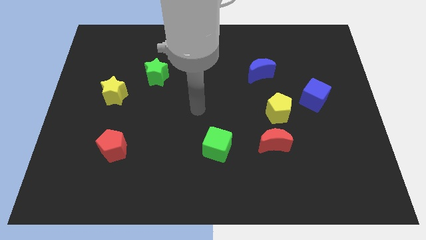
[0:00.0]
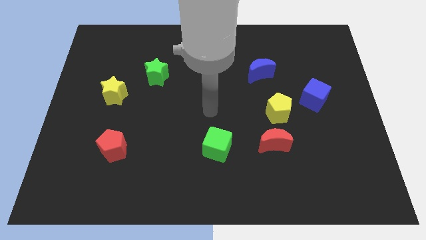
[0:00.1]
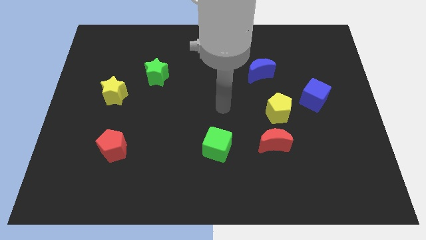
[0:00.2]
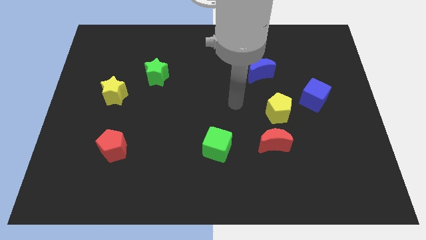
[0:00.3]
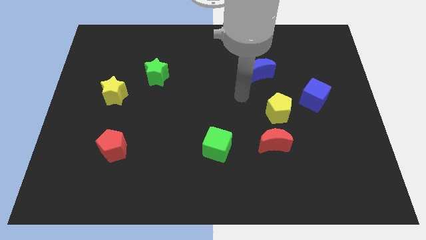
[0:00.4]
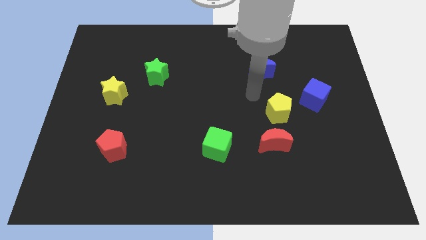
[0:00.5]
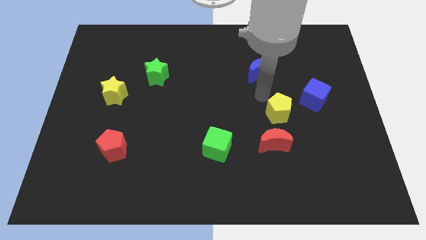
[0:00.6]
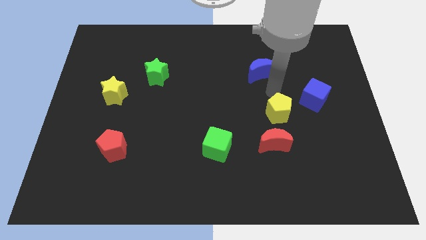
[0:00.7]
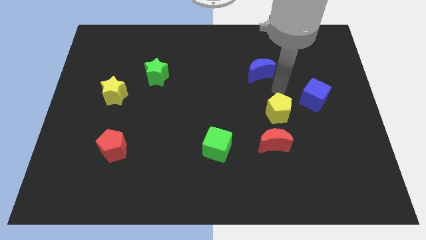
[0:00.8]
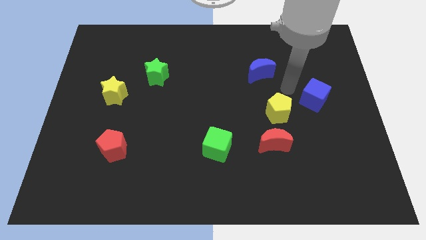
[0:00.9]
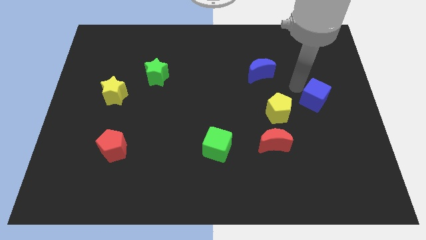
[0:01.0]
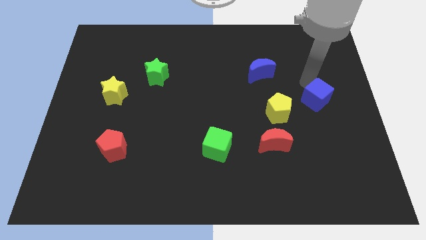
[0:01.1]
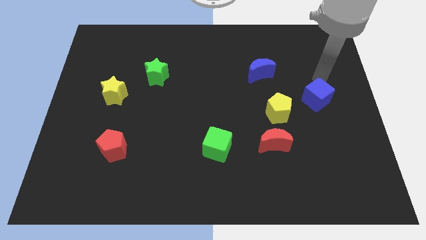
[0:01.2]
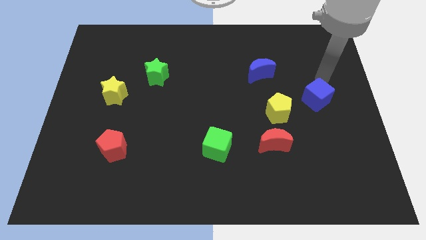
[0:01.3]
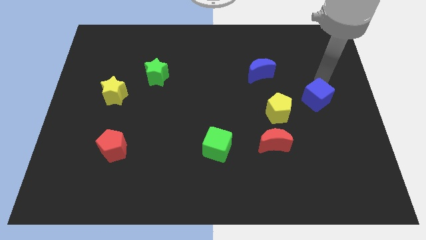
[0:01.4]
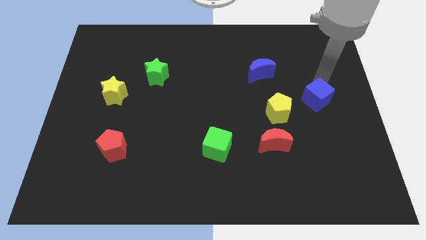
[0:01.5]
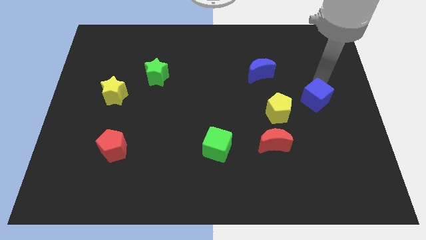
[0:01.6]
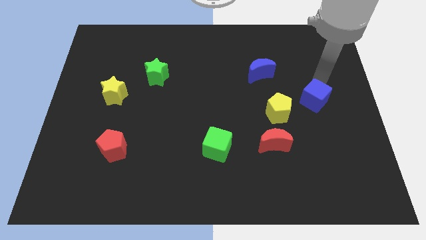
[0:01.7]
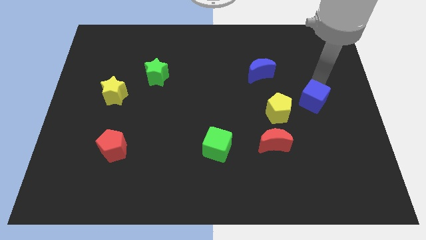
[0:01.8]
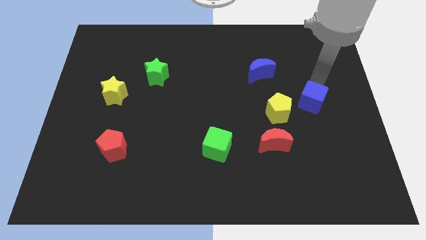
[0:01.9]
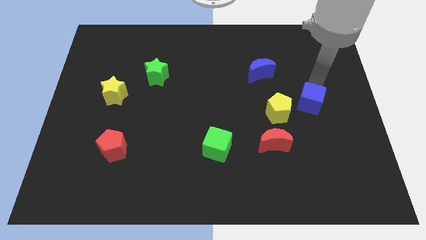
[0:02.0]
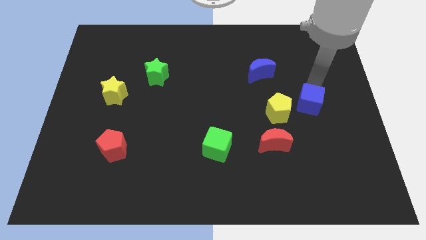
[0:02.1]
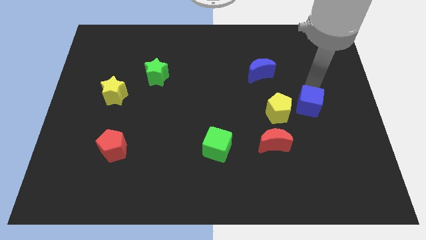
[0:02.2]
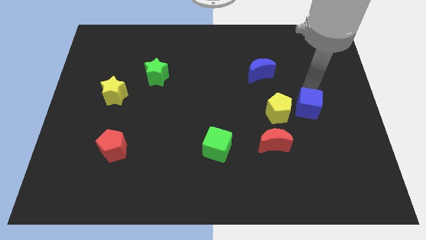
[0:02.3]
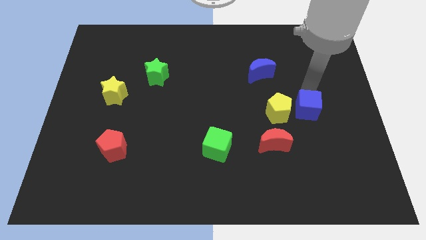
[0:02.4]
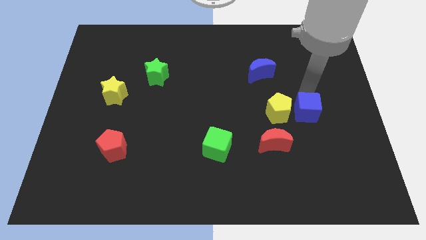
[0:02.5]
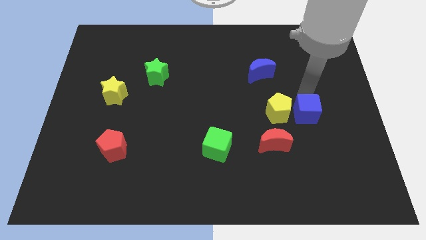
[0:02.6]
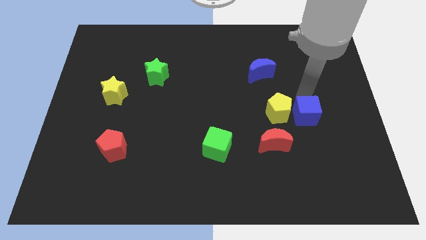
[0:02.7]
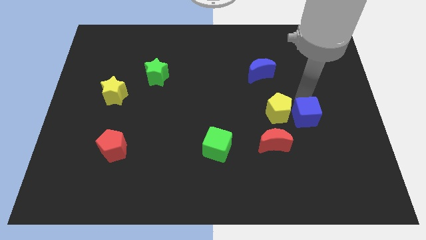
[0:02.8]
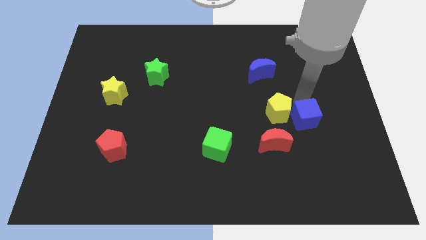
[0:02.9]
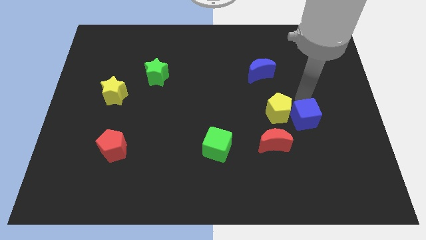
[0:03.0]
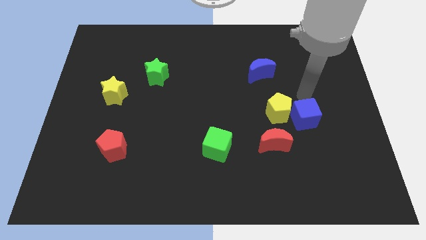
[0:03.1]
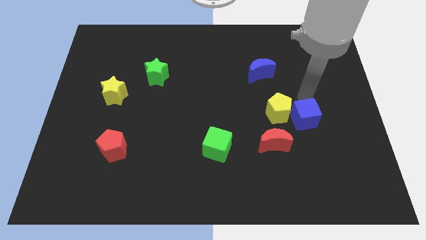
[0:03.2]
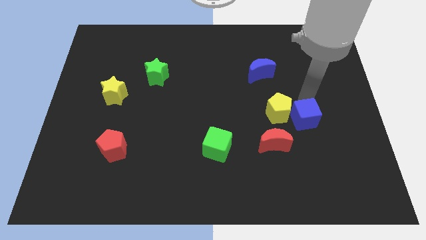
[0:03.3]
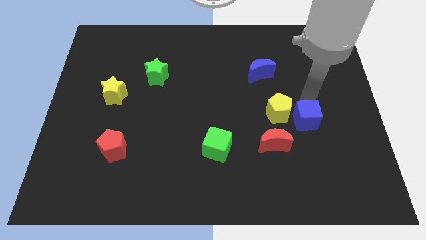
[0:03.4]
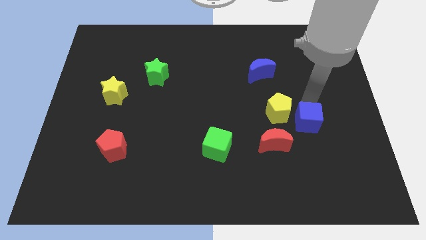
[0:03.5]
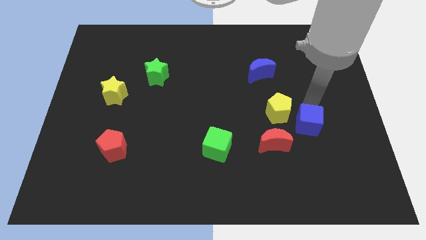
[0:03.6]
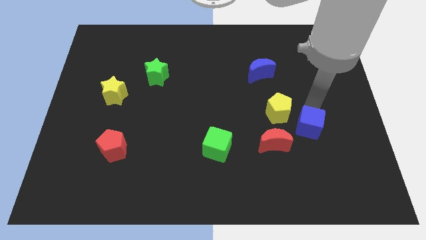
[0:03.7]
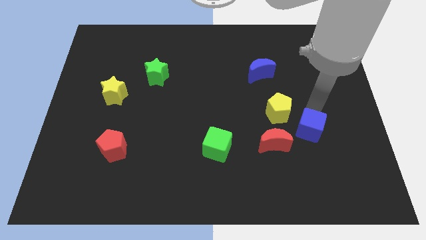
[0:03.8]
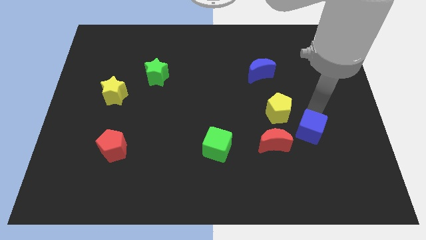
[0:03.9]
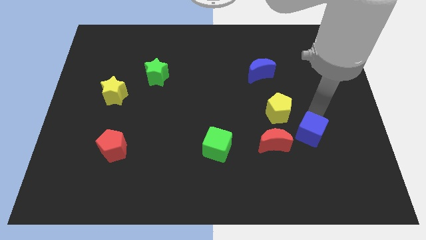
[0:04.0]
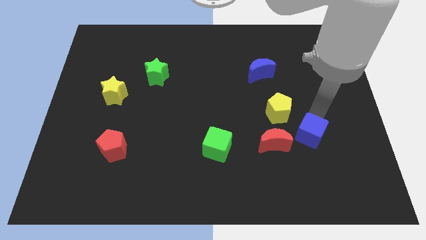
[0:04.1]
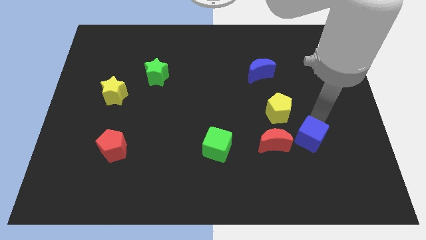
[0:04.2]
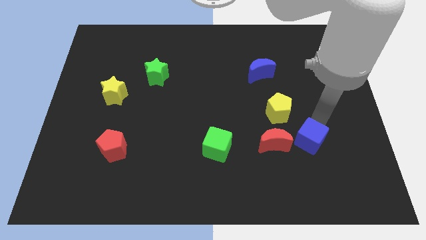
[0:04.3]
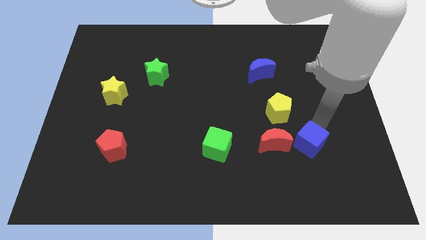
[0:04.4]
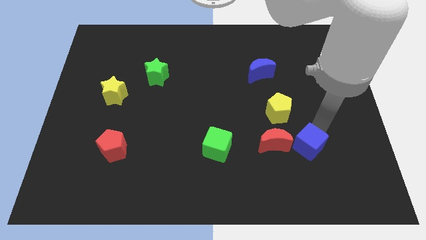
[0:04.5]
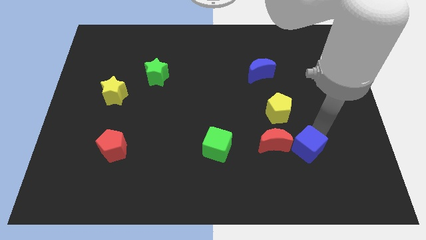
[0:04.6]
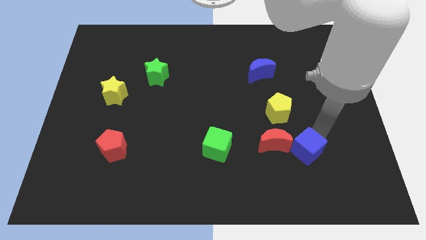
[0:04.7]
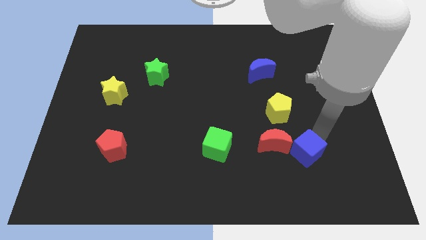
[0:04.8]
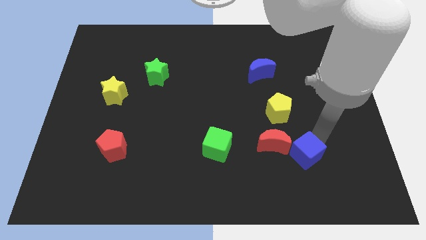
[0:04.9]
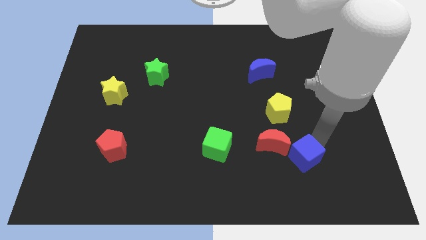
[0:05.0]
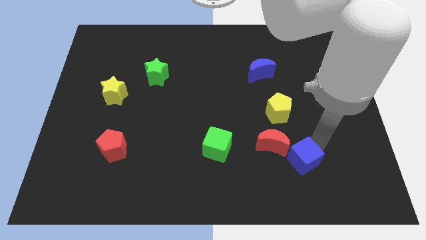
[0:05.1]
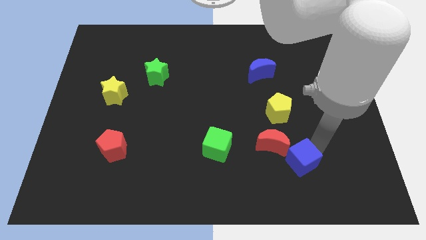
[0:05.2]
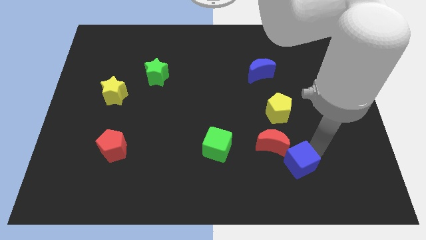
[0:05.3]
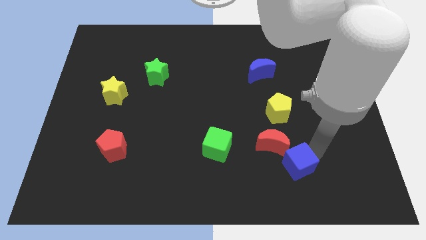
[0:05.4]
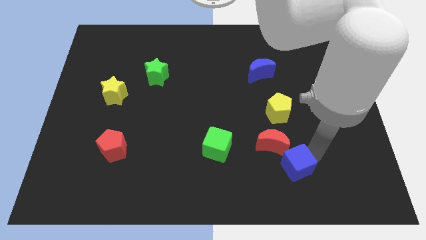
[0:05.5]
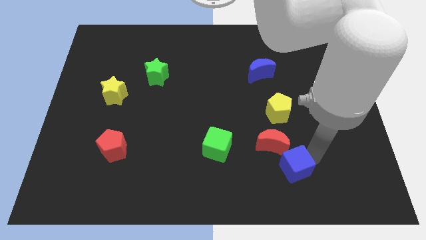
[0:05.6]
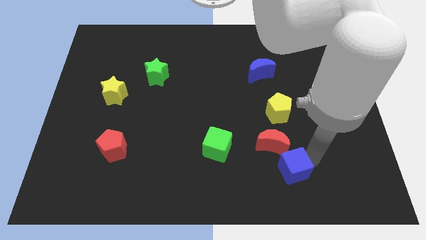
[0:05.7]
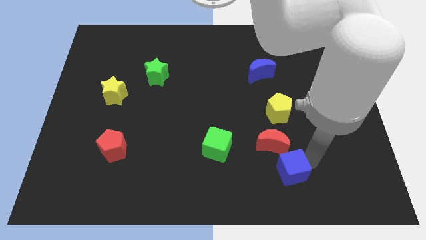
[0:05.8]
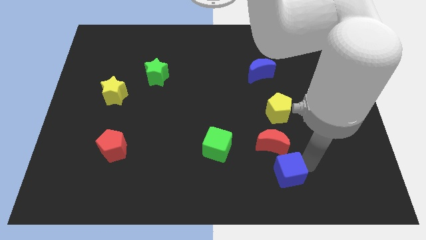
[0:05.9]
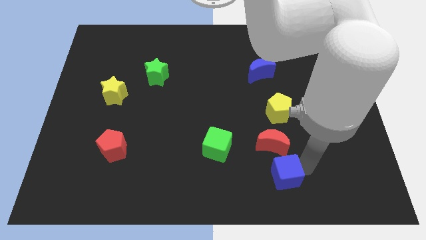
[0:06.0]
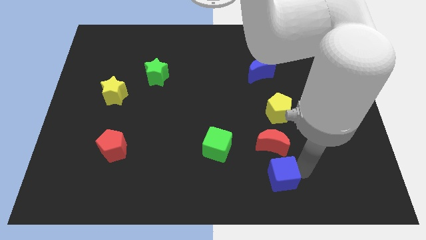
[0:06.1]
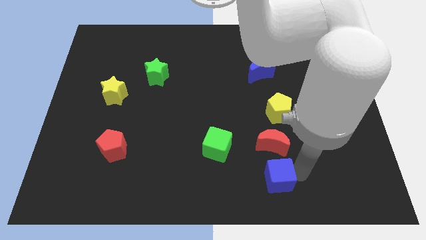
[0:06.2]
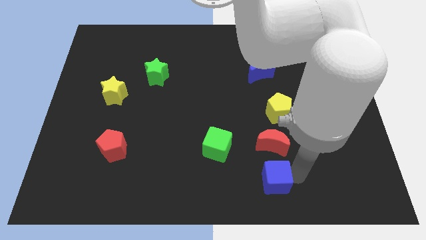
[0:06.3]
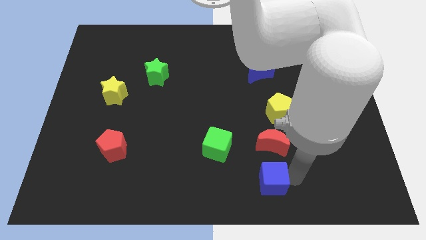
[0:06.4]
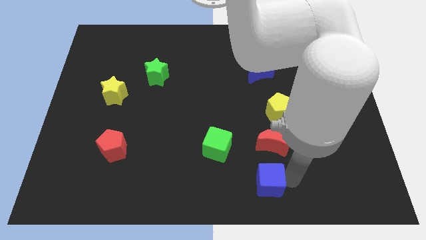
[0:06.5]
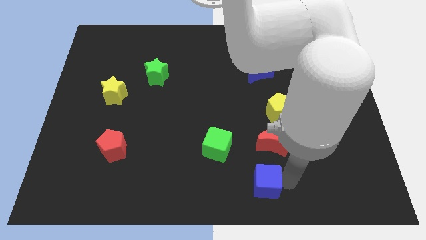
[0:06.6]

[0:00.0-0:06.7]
move the blue cube diagonally down and to the right of the green cube
